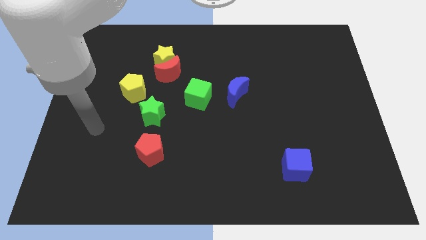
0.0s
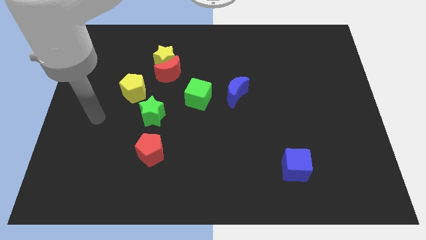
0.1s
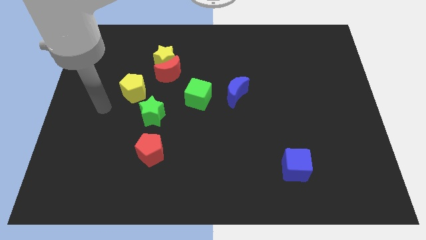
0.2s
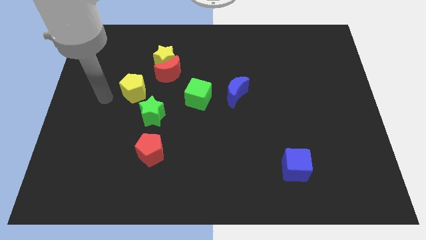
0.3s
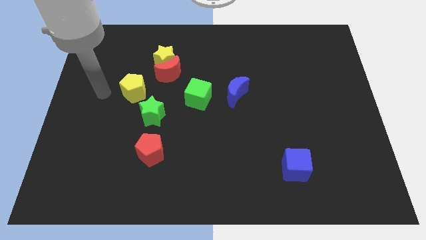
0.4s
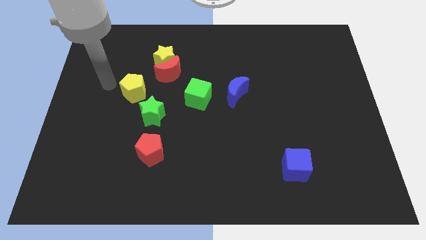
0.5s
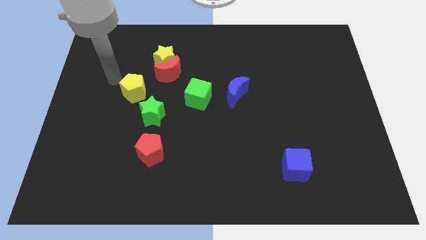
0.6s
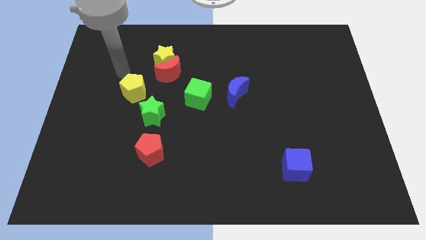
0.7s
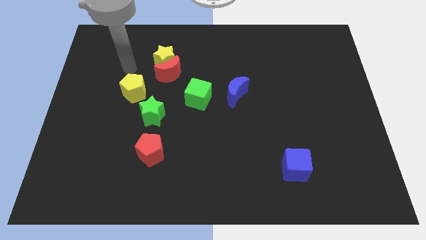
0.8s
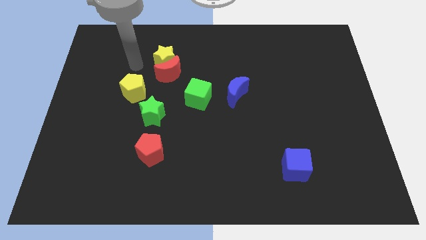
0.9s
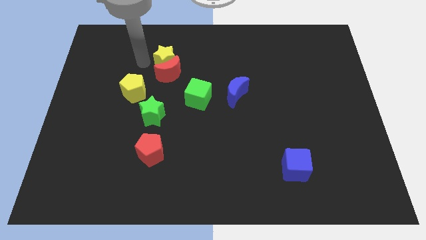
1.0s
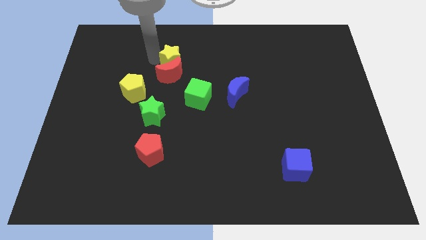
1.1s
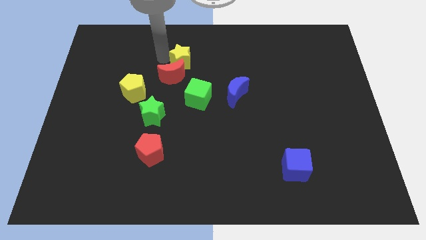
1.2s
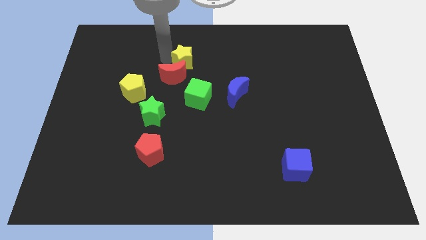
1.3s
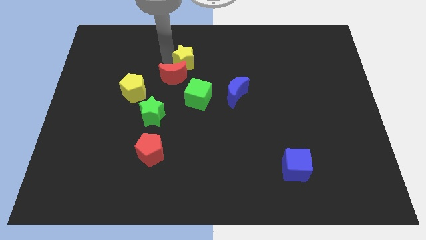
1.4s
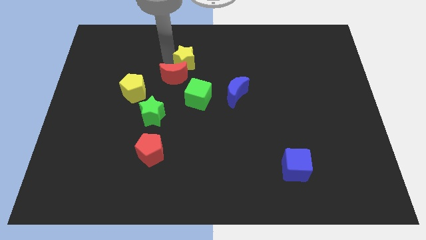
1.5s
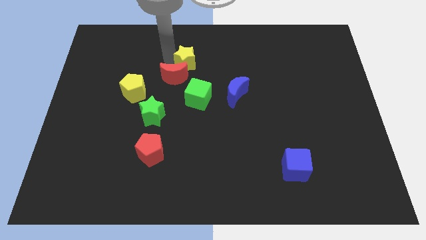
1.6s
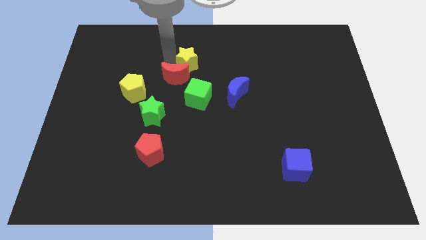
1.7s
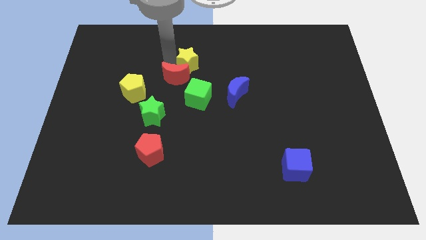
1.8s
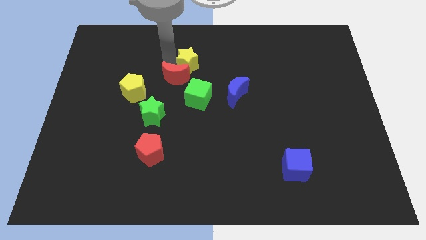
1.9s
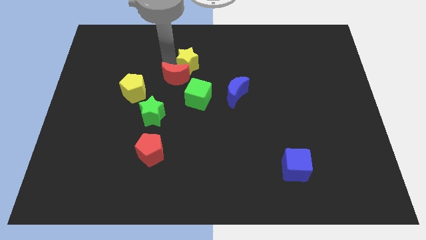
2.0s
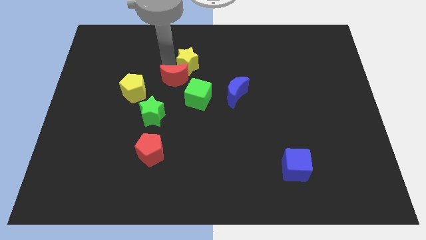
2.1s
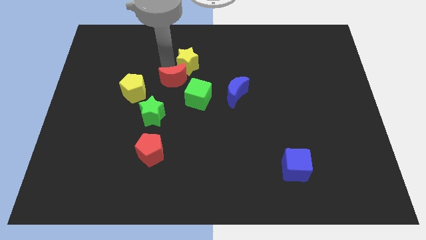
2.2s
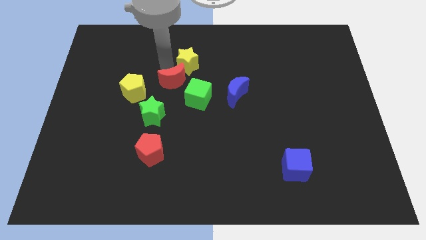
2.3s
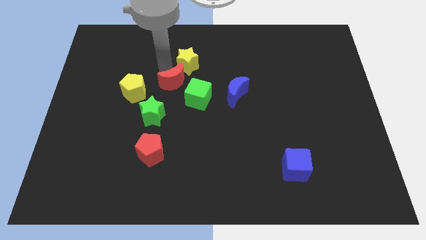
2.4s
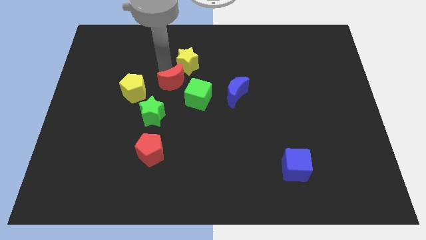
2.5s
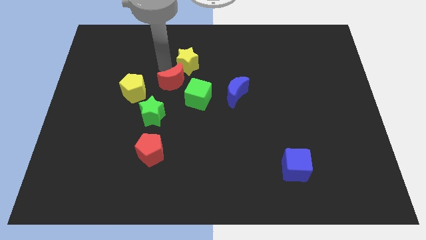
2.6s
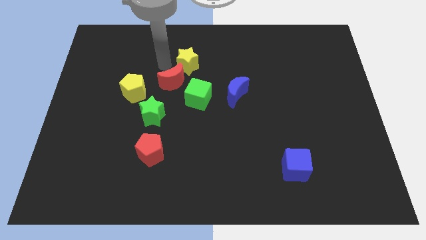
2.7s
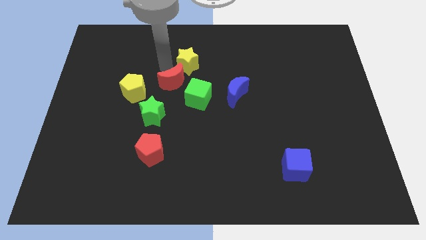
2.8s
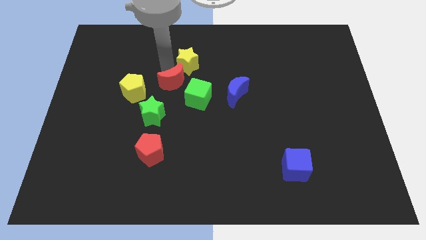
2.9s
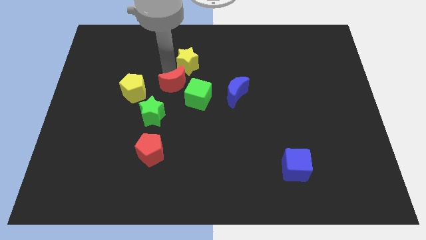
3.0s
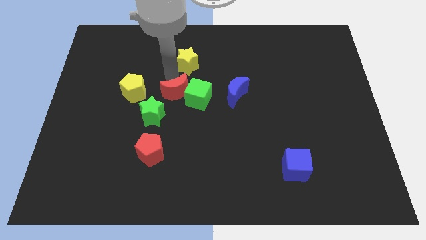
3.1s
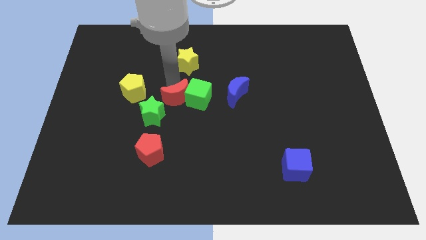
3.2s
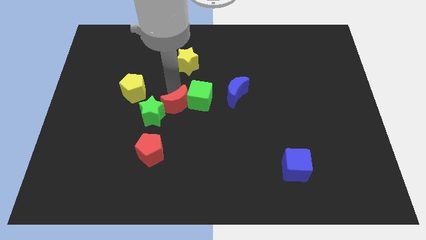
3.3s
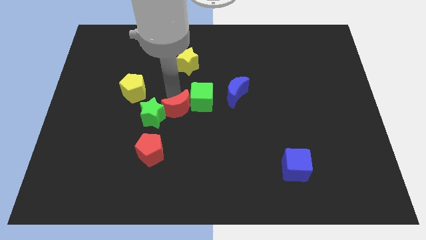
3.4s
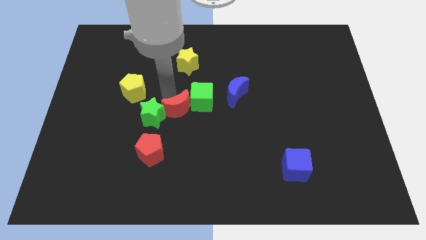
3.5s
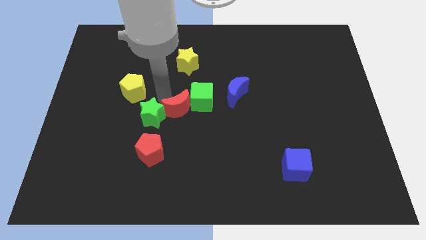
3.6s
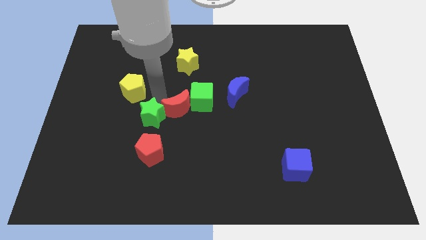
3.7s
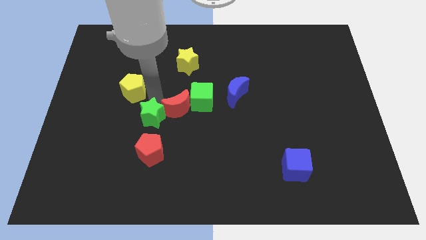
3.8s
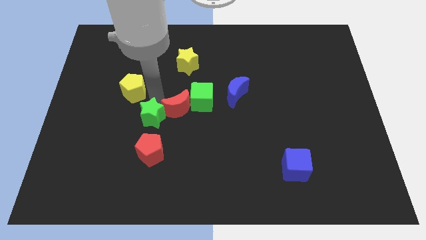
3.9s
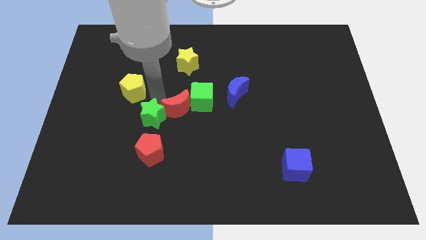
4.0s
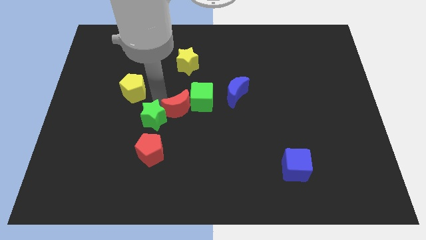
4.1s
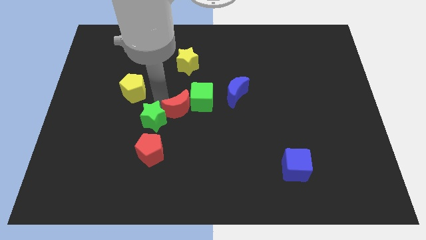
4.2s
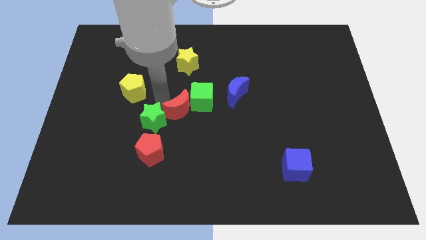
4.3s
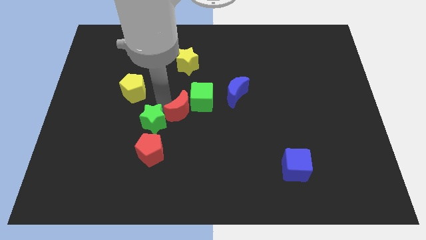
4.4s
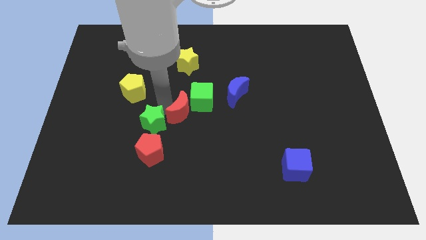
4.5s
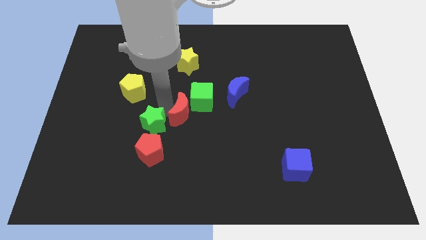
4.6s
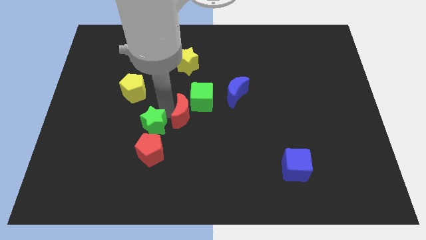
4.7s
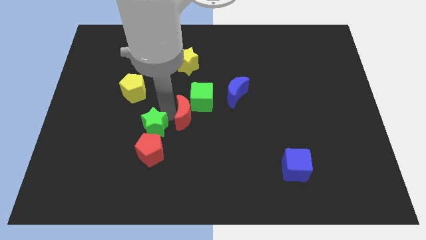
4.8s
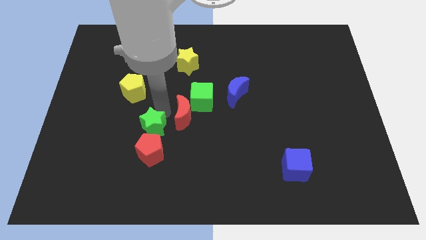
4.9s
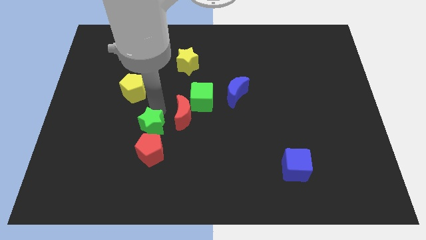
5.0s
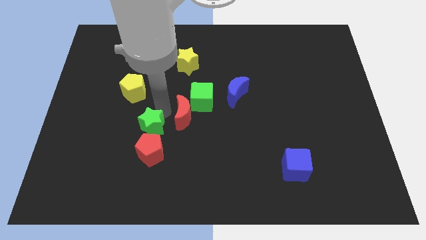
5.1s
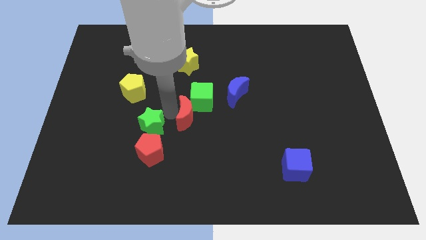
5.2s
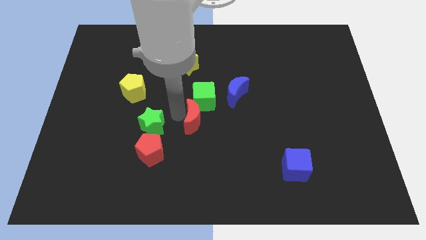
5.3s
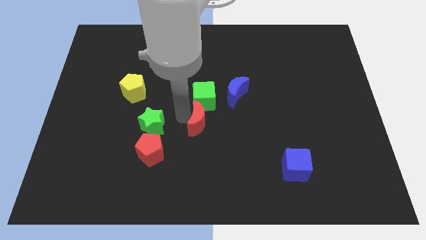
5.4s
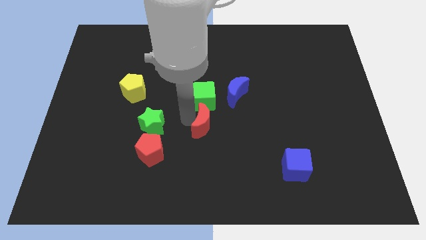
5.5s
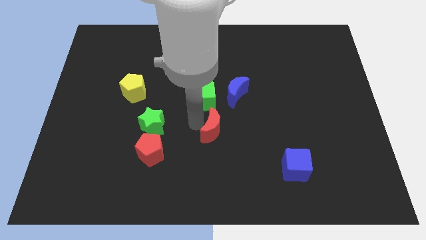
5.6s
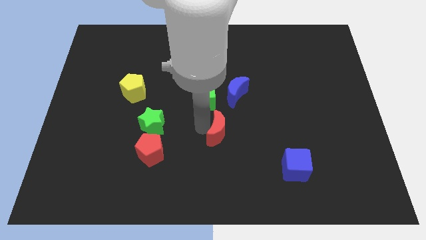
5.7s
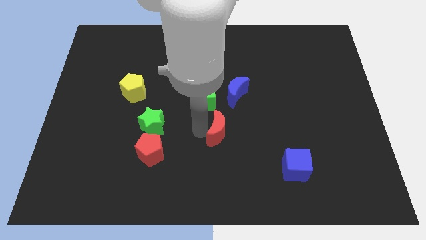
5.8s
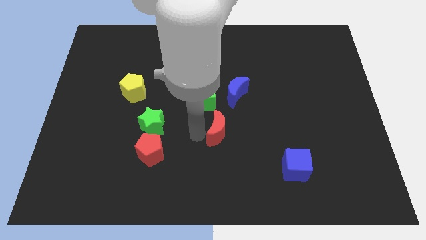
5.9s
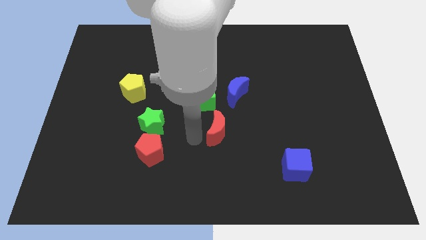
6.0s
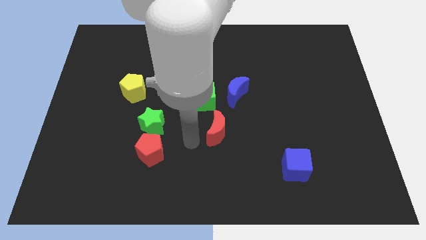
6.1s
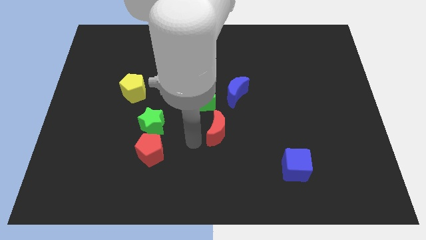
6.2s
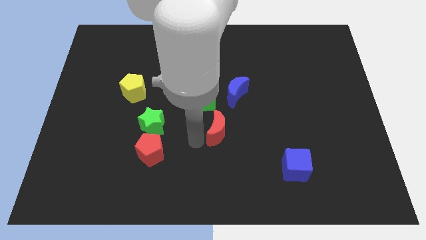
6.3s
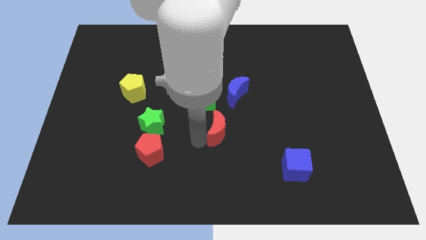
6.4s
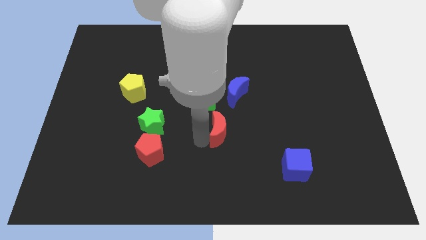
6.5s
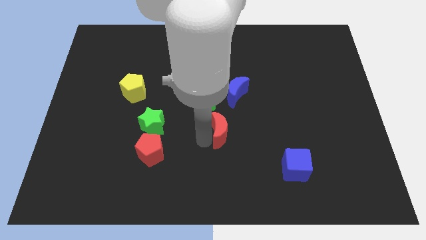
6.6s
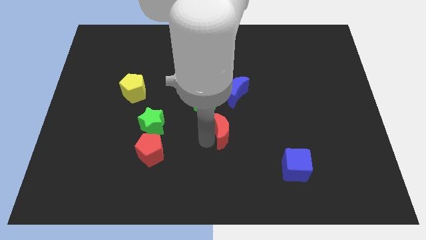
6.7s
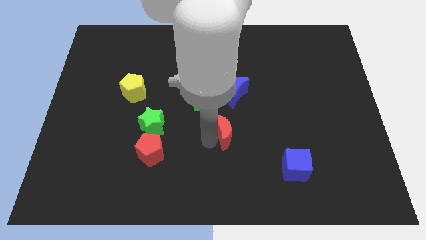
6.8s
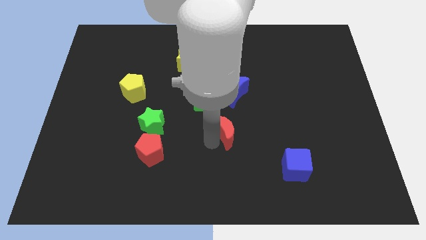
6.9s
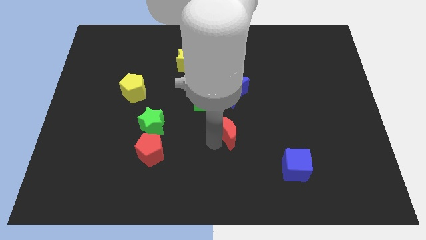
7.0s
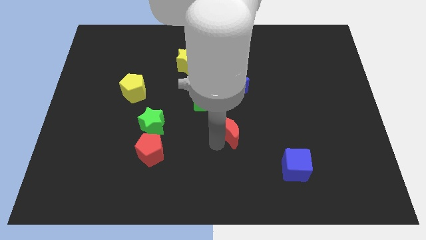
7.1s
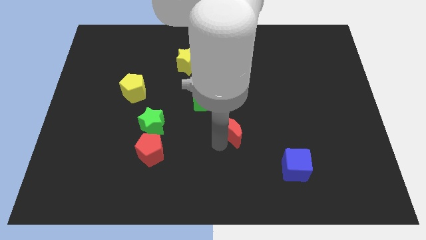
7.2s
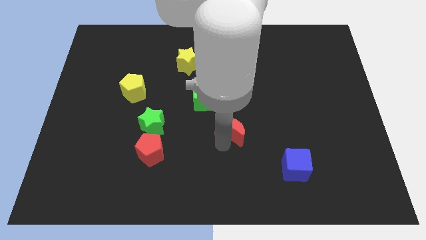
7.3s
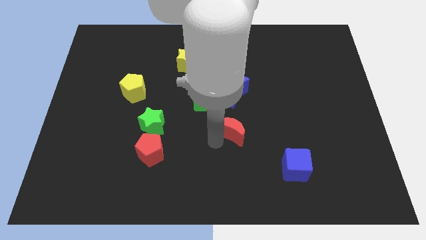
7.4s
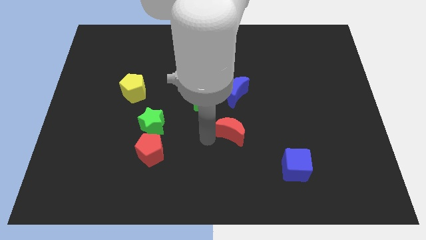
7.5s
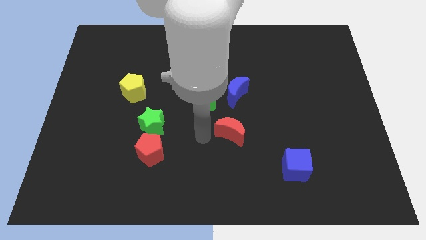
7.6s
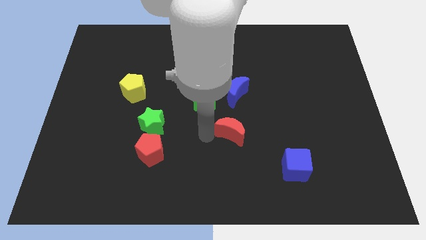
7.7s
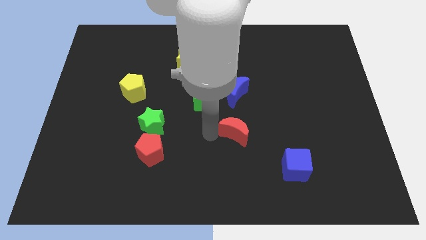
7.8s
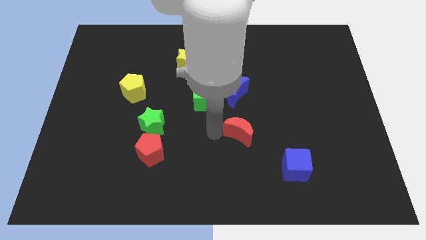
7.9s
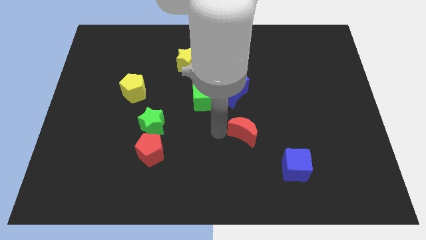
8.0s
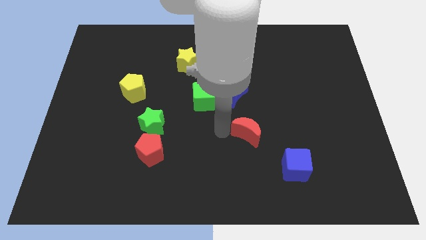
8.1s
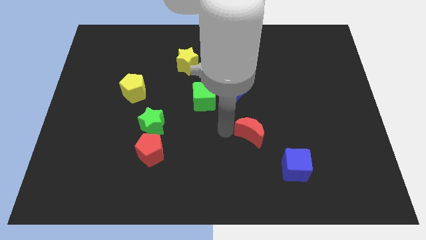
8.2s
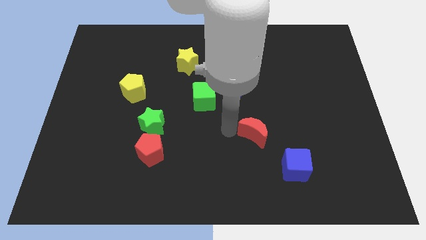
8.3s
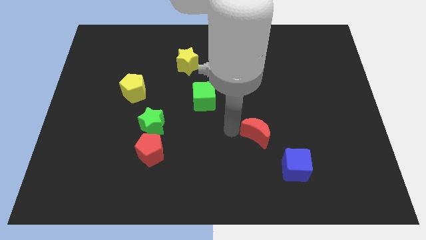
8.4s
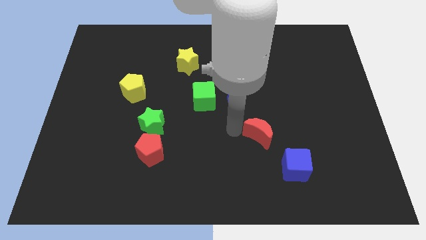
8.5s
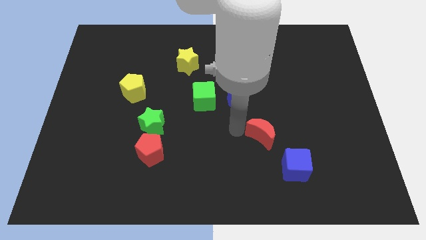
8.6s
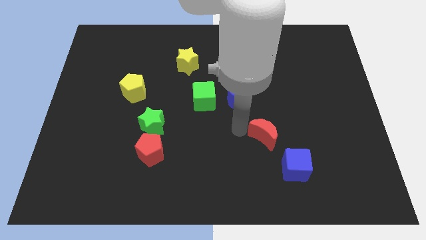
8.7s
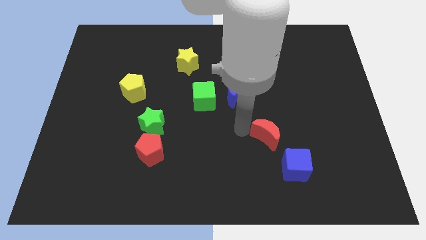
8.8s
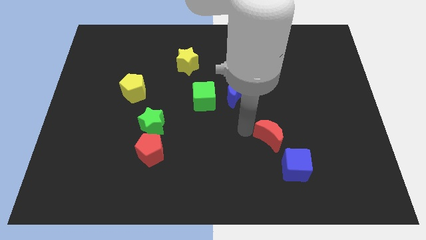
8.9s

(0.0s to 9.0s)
put the red moon to the top side of the blue cube
